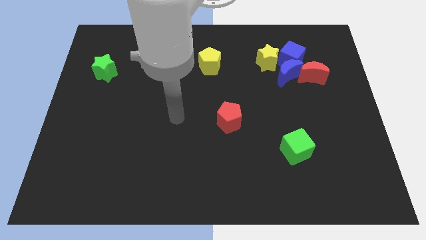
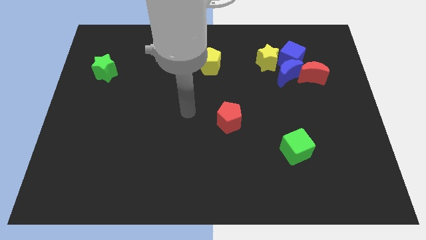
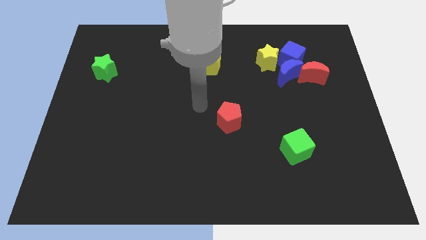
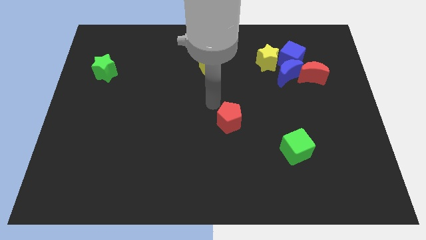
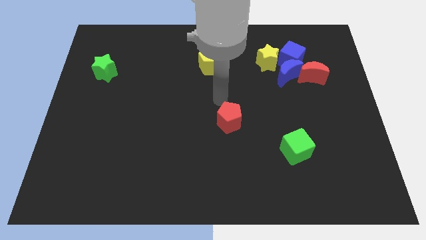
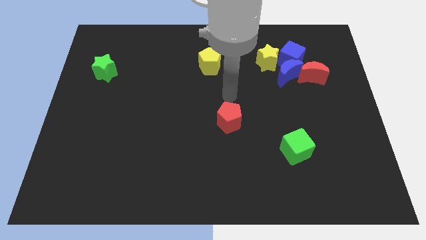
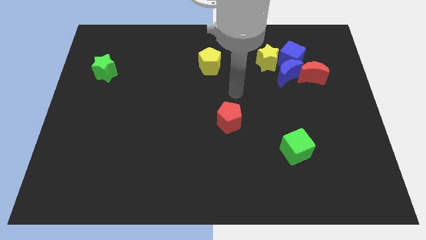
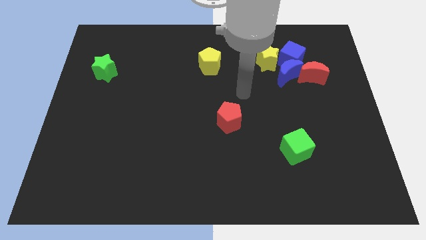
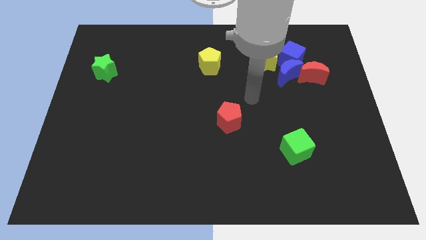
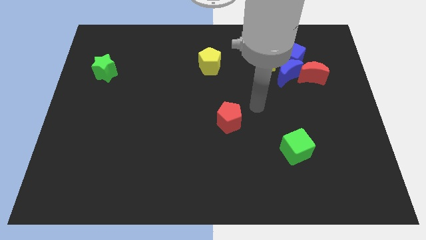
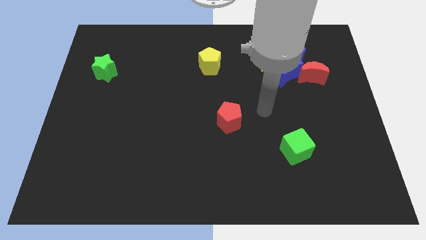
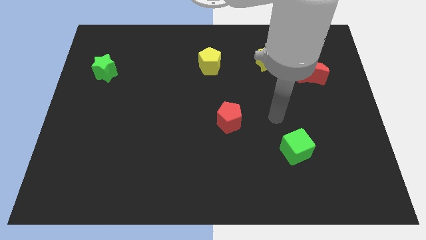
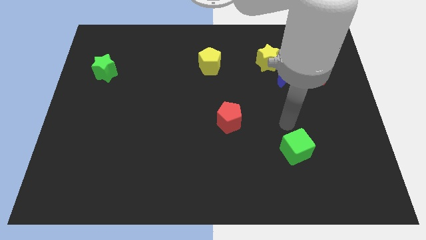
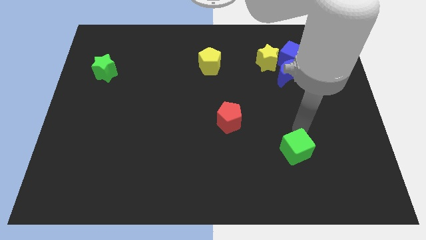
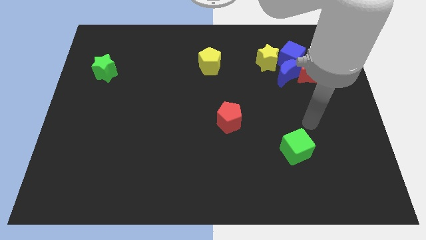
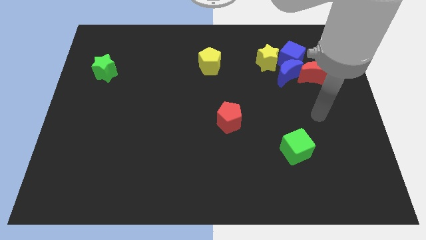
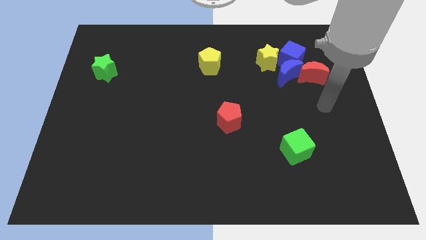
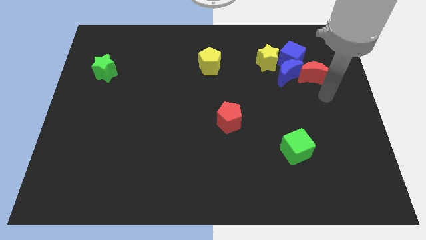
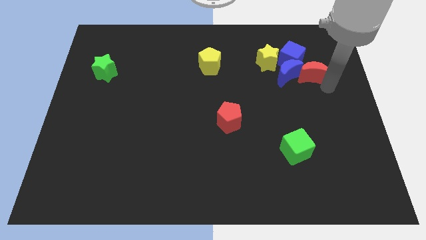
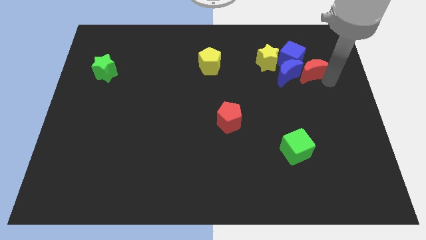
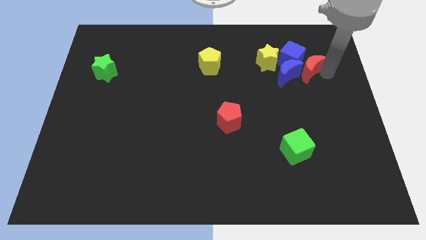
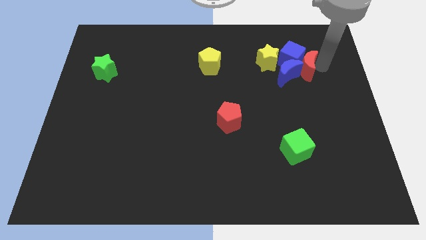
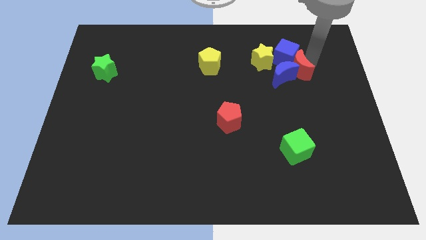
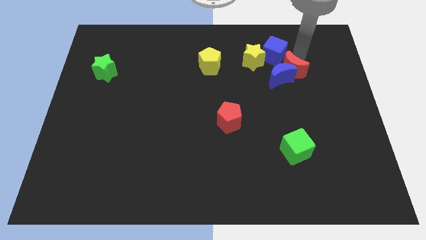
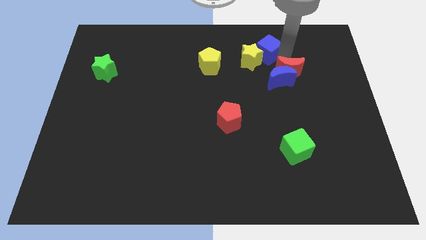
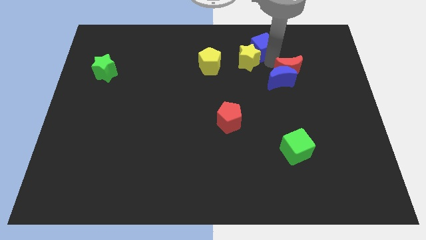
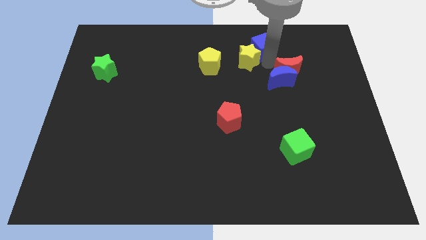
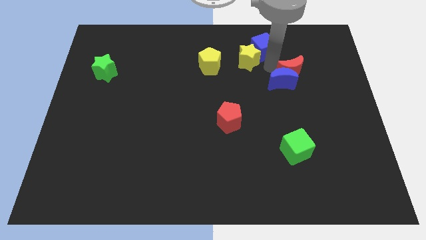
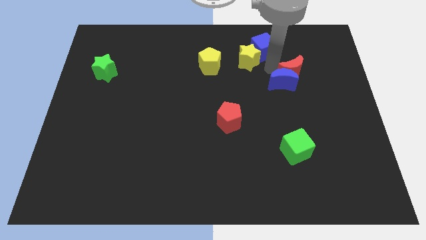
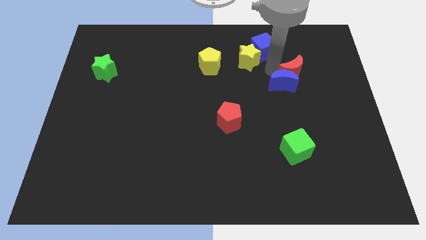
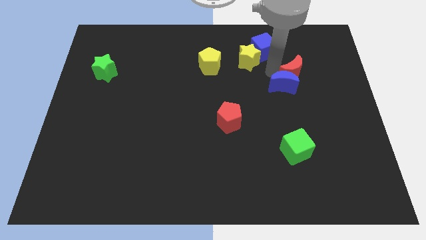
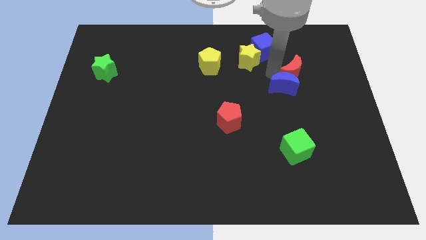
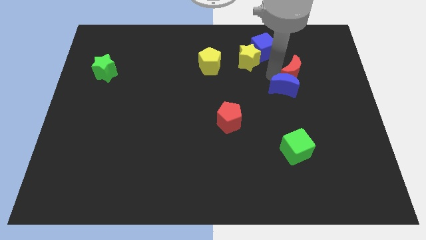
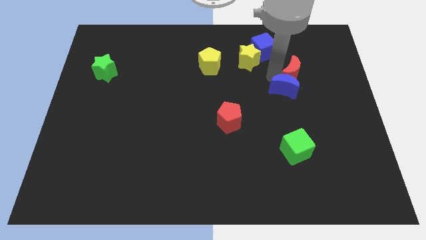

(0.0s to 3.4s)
separate the blue moon from the blue cube, red moon, and yellow star

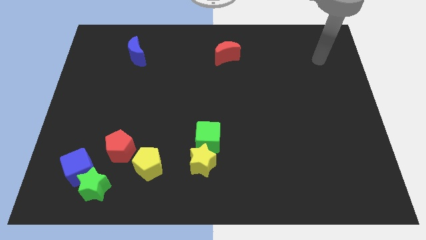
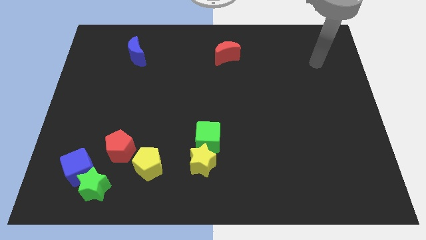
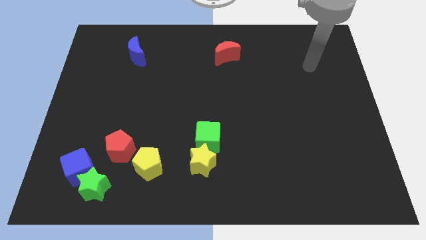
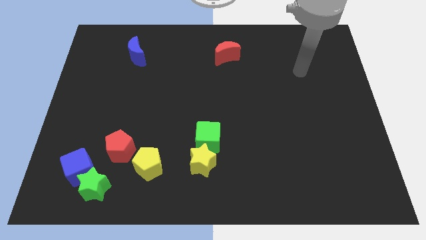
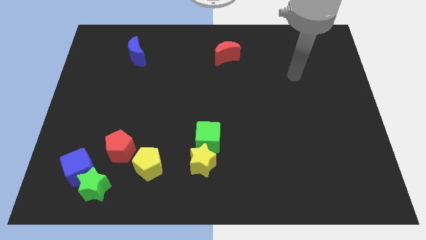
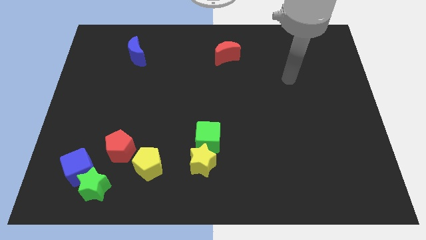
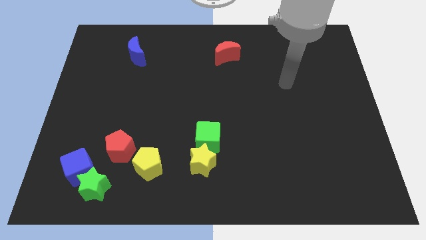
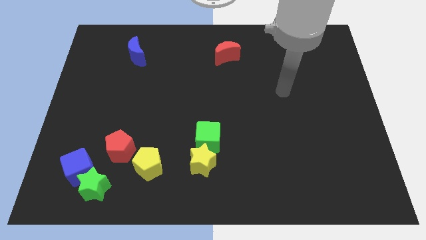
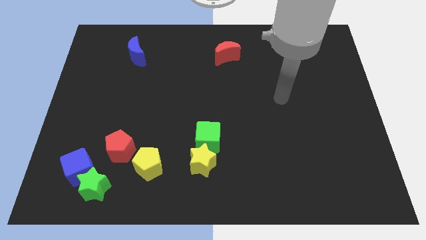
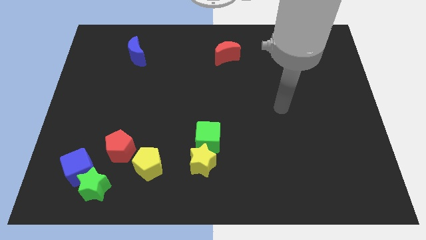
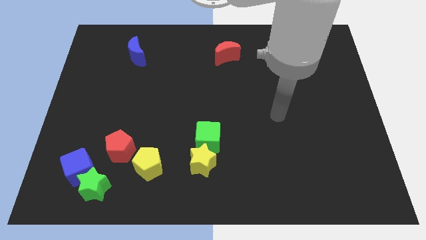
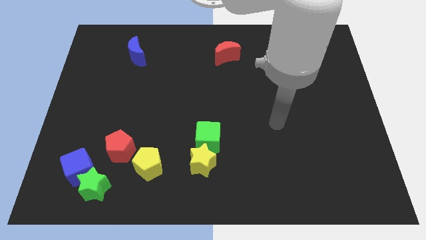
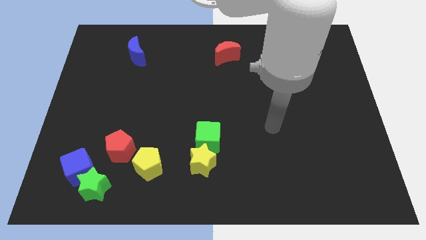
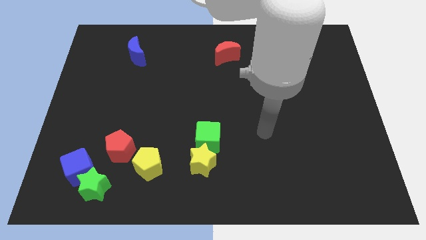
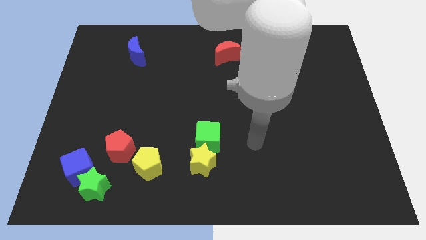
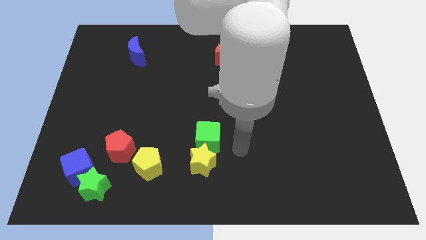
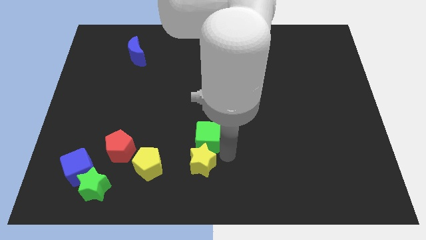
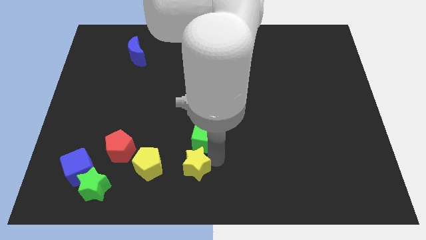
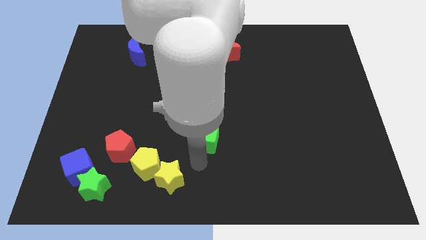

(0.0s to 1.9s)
separate the green cube from the yellow star

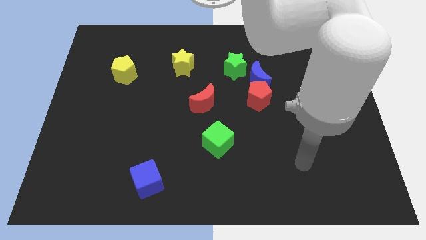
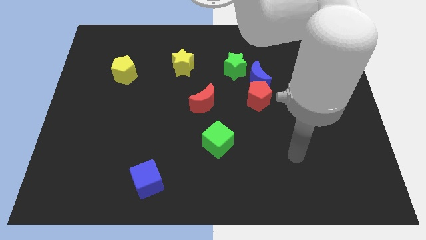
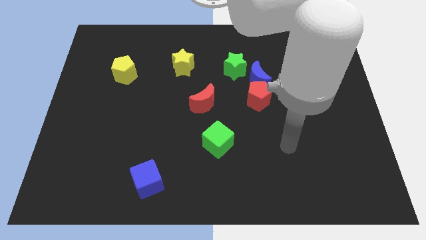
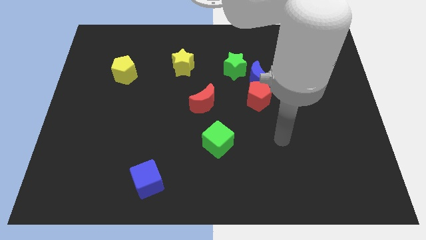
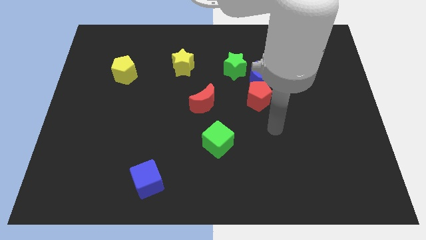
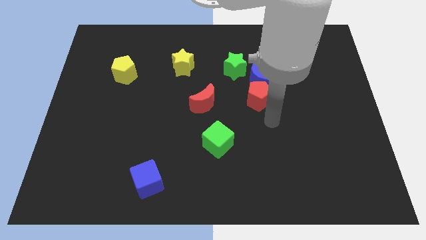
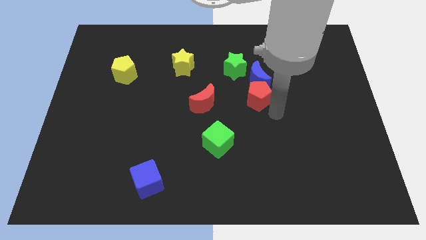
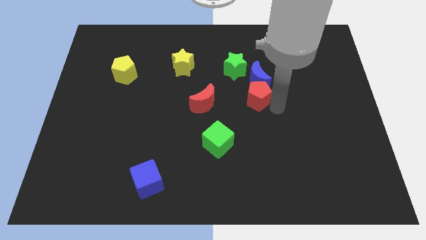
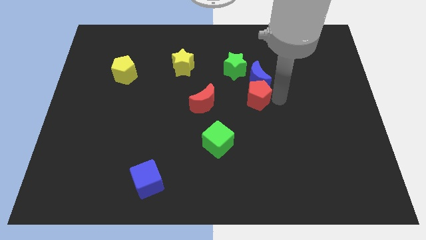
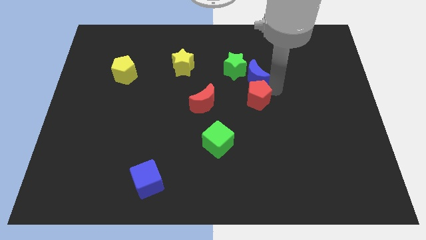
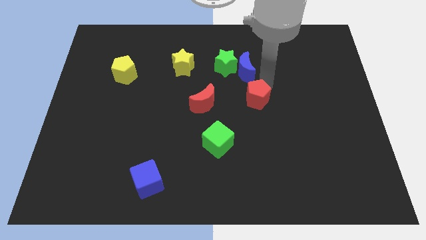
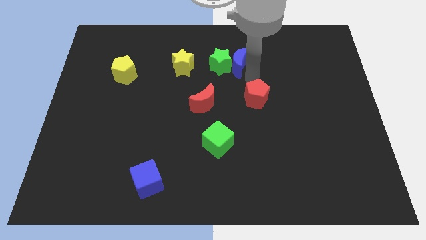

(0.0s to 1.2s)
move the red pentagon away from the blue moon

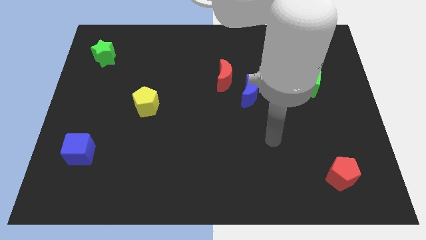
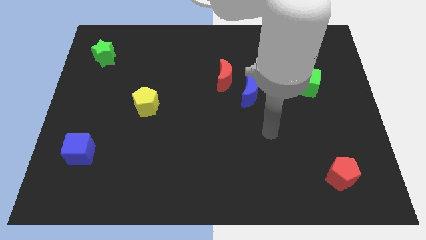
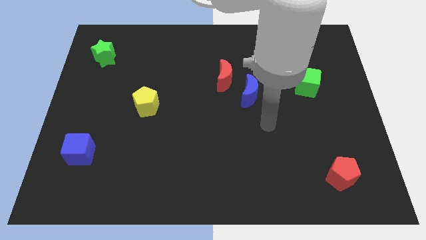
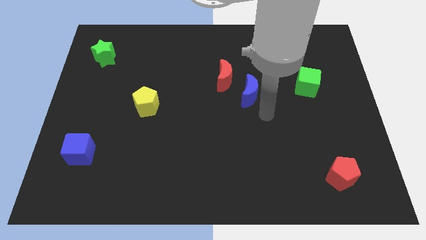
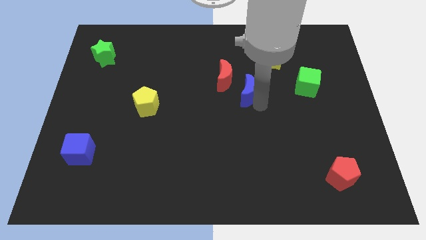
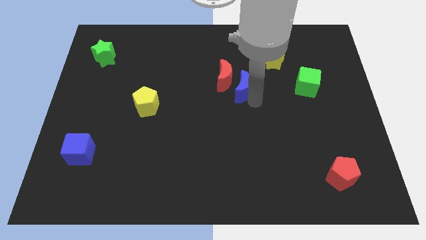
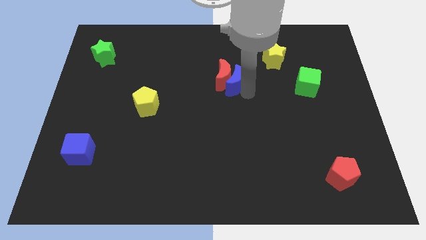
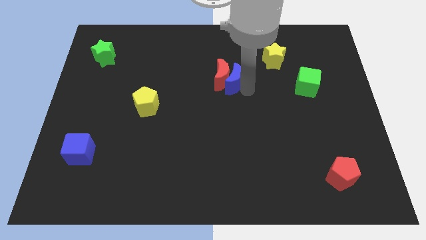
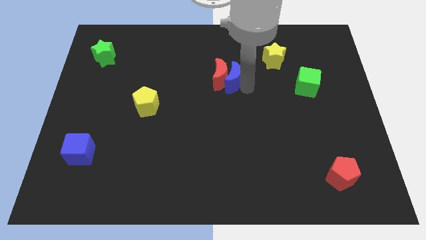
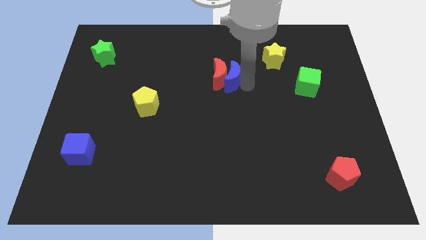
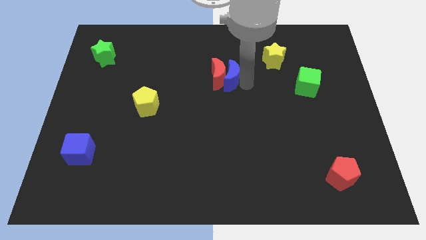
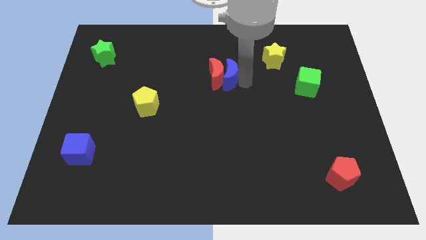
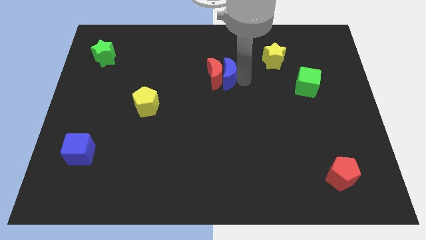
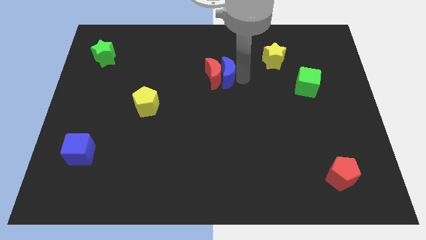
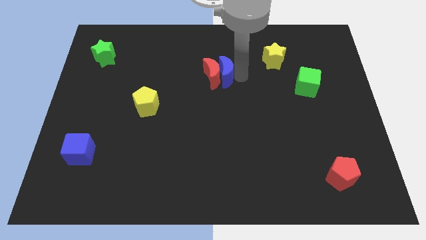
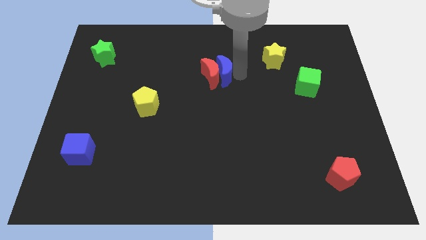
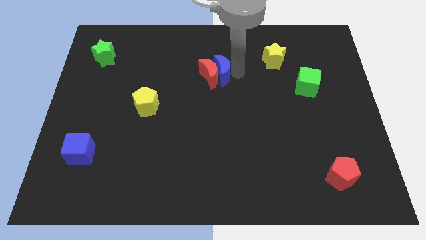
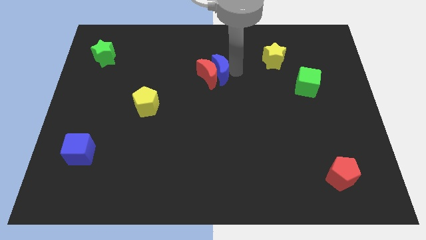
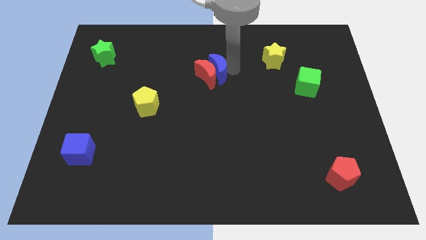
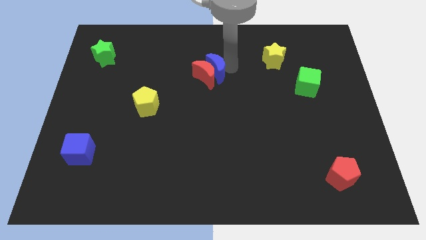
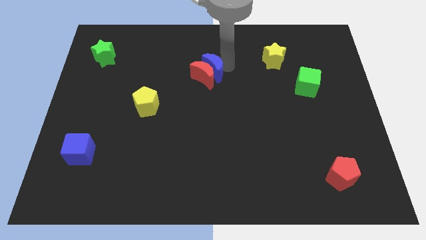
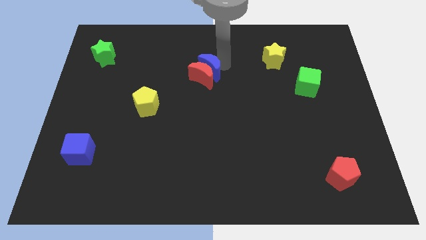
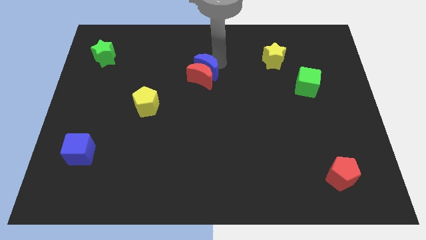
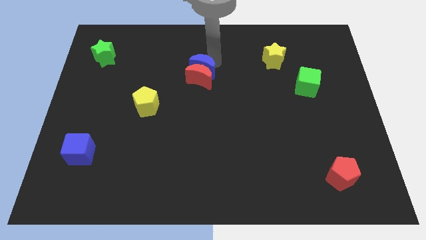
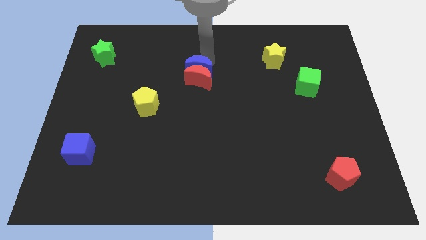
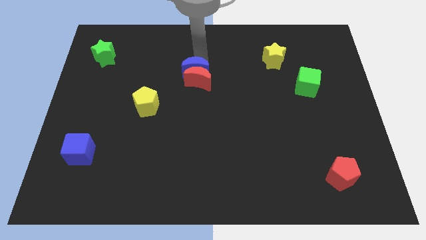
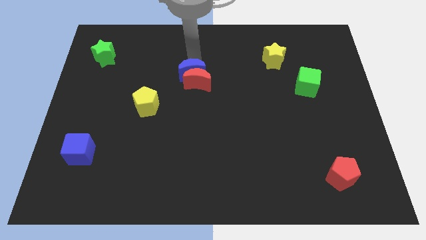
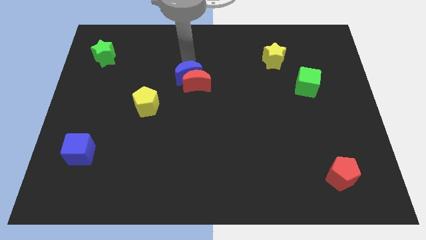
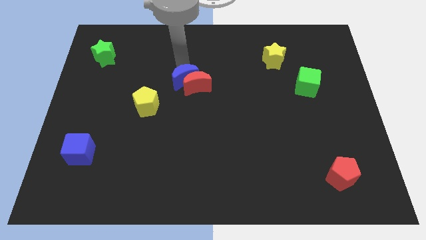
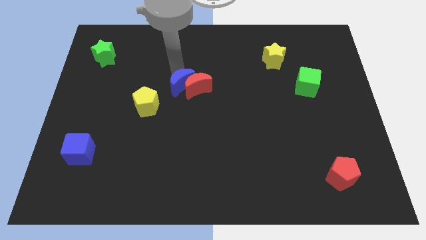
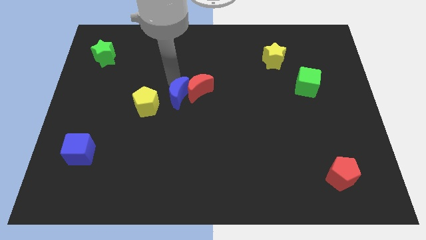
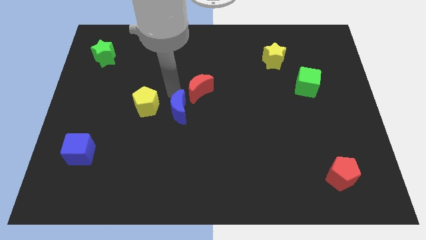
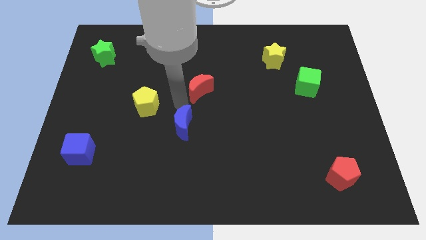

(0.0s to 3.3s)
move the red moon away from the blue moon
